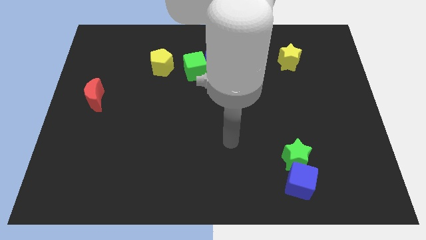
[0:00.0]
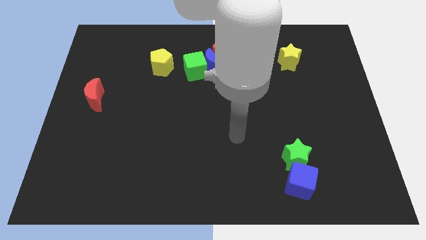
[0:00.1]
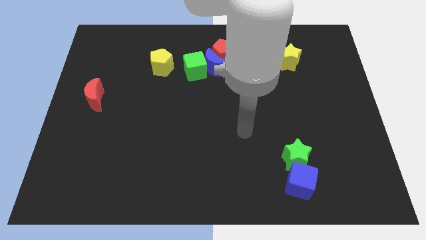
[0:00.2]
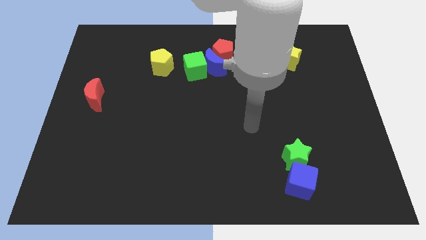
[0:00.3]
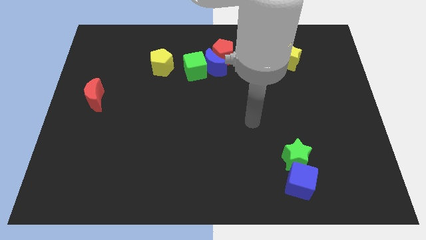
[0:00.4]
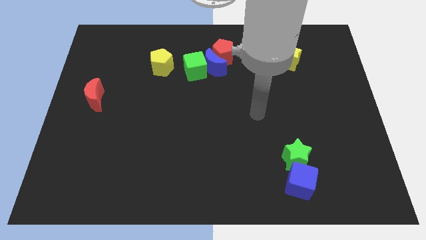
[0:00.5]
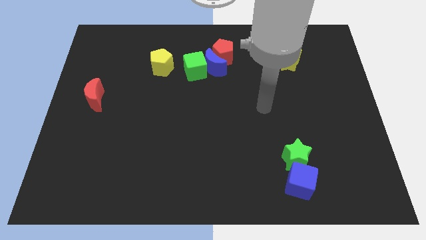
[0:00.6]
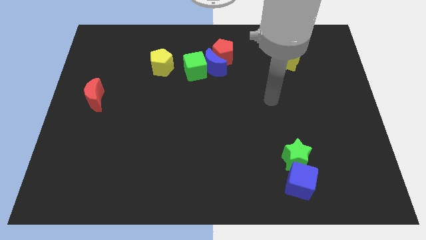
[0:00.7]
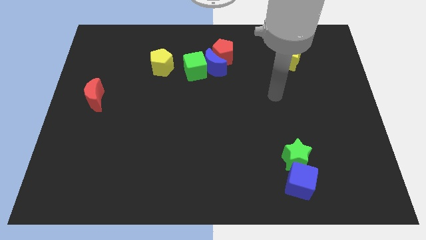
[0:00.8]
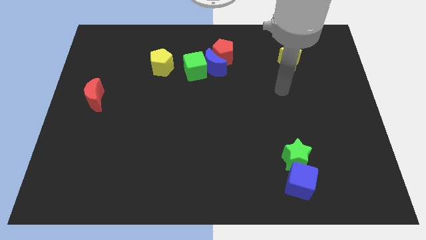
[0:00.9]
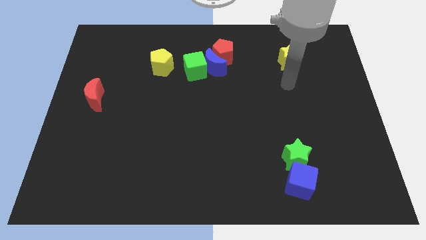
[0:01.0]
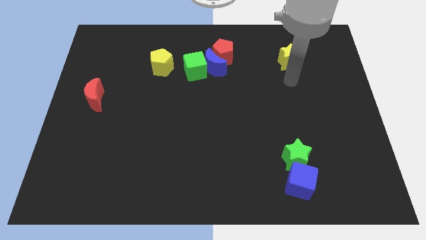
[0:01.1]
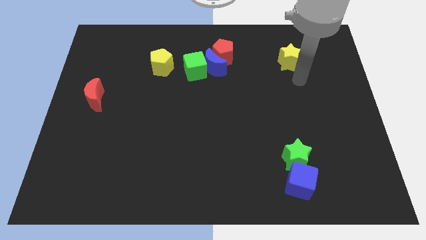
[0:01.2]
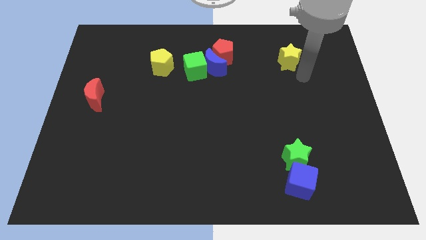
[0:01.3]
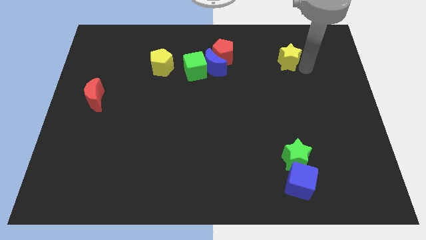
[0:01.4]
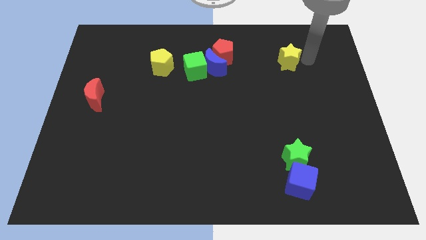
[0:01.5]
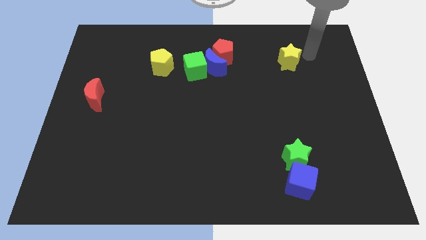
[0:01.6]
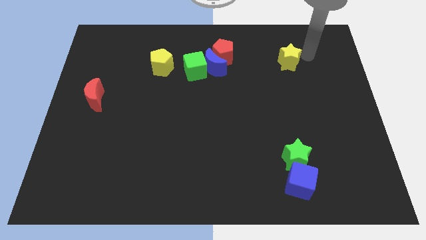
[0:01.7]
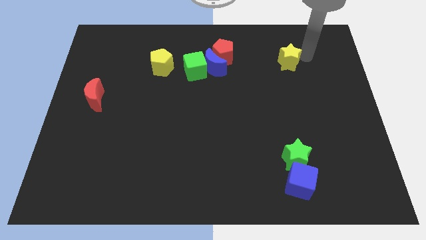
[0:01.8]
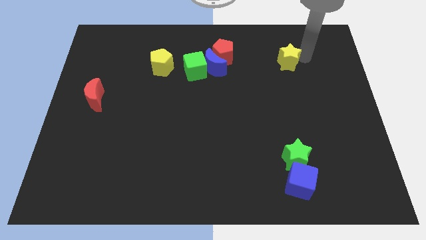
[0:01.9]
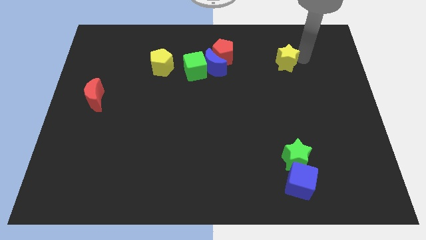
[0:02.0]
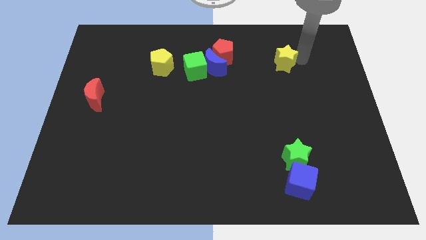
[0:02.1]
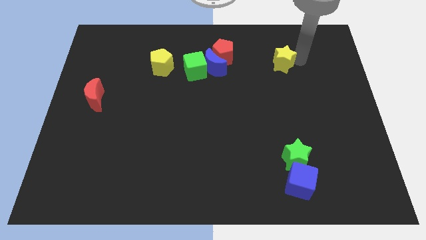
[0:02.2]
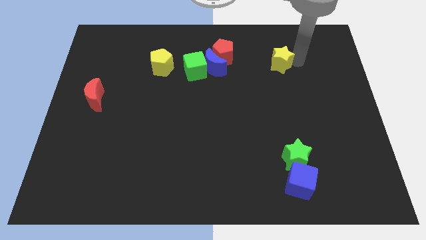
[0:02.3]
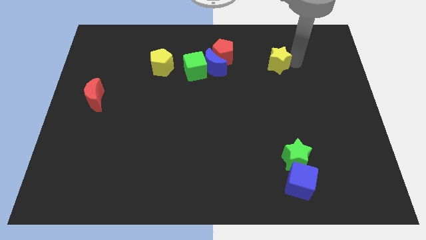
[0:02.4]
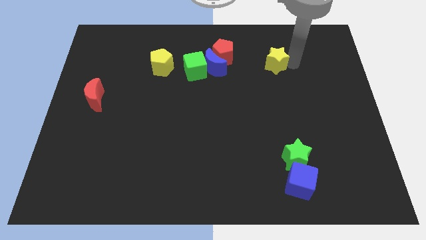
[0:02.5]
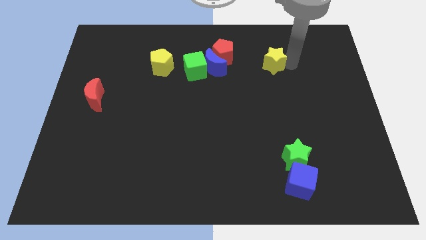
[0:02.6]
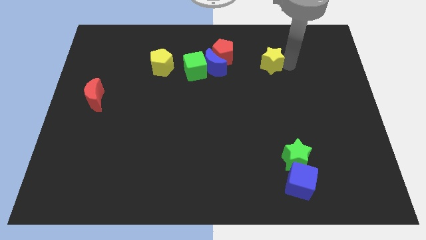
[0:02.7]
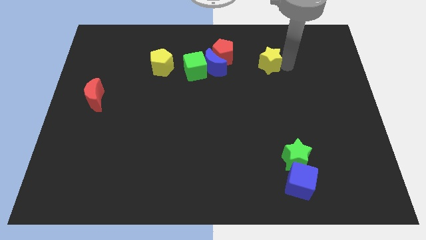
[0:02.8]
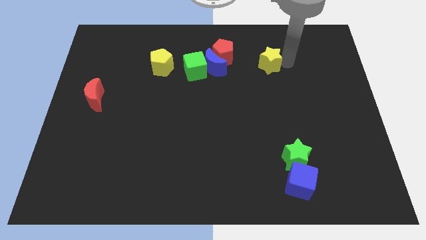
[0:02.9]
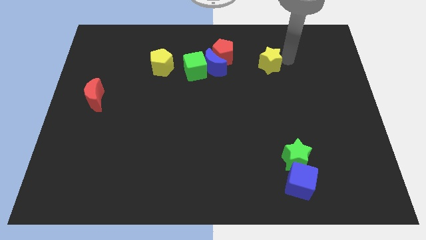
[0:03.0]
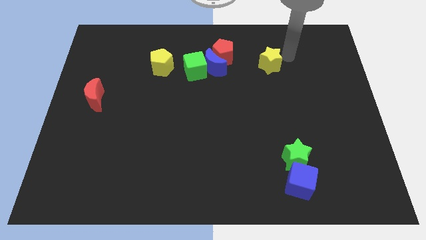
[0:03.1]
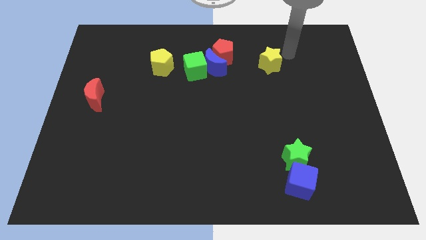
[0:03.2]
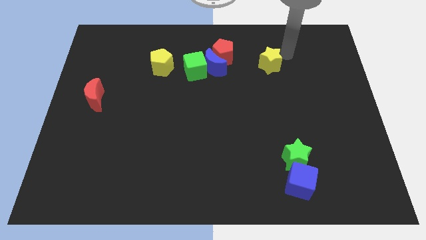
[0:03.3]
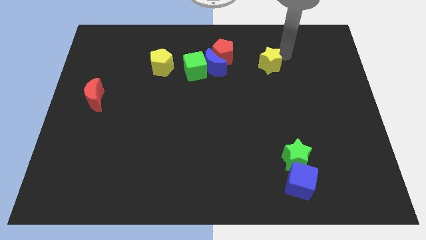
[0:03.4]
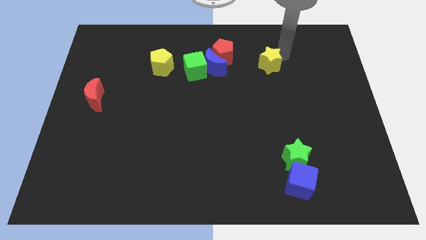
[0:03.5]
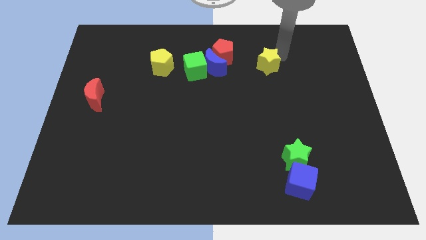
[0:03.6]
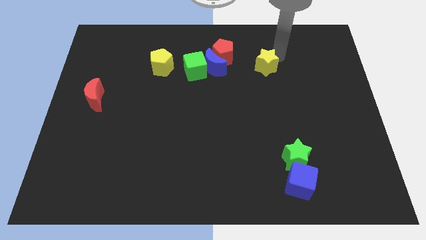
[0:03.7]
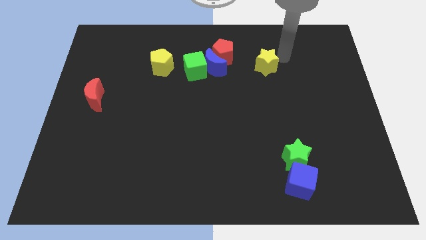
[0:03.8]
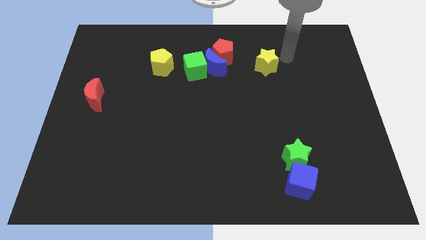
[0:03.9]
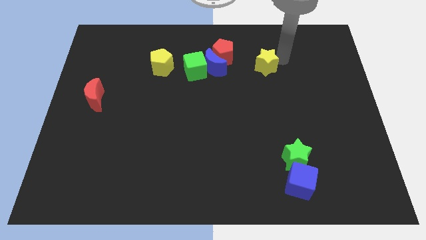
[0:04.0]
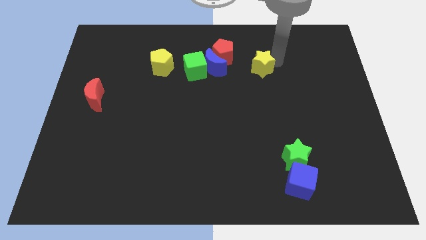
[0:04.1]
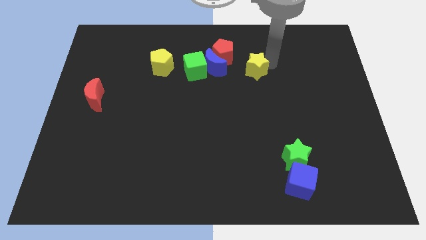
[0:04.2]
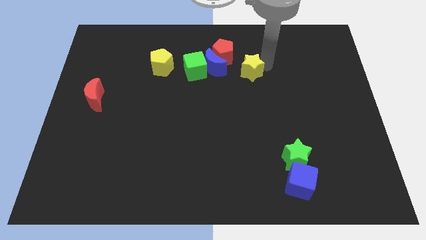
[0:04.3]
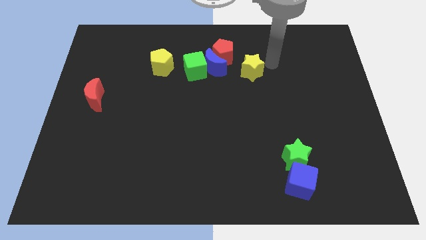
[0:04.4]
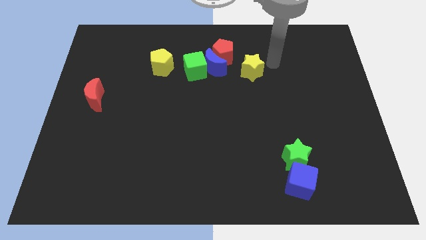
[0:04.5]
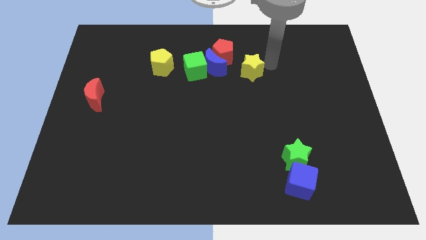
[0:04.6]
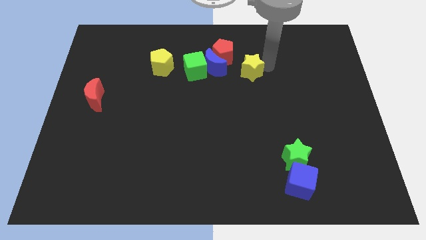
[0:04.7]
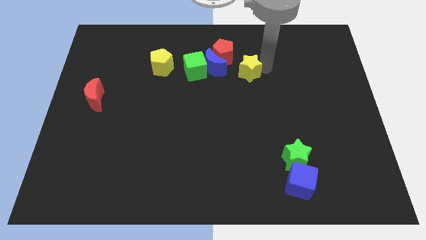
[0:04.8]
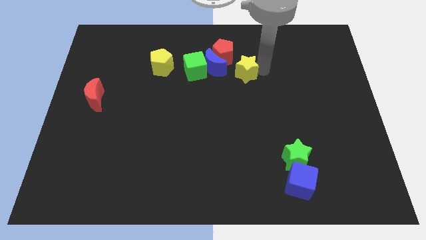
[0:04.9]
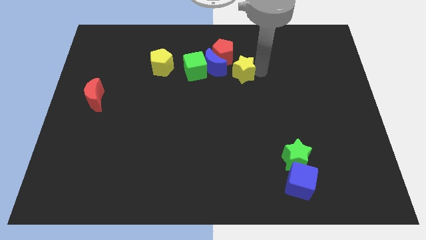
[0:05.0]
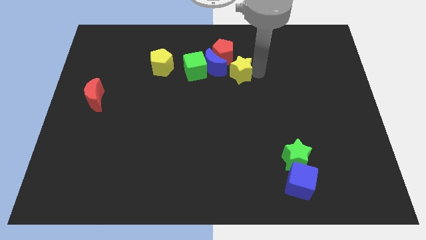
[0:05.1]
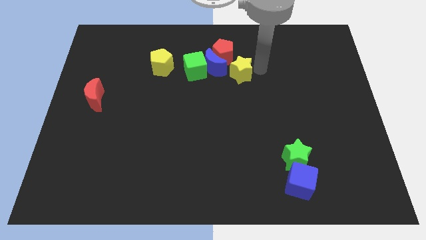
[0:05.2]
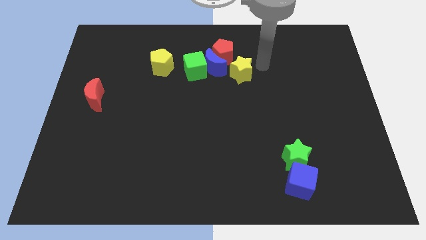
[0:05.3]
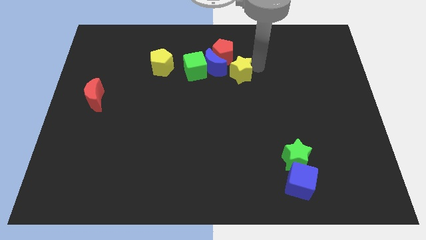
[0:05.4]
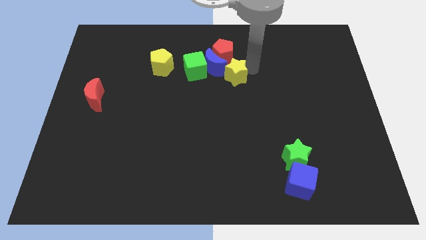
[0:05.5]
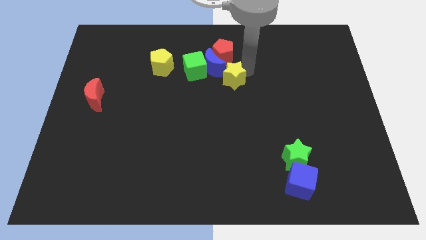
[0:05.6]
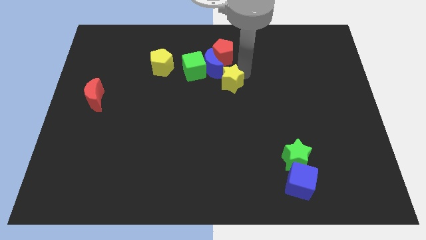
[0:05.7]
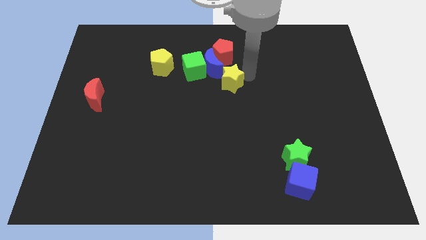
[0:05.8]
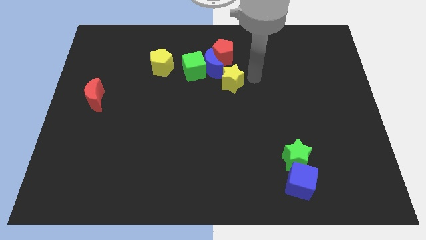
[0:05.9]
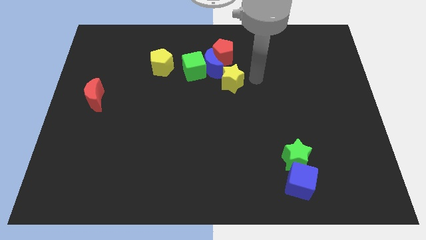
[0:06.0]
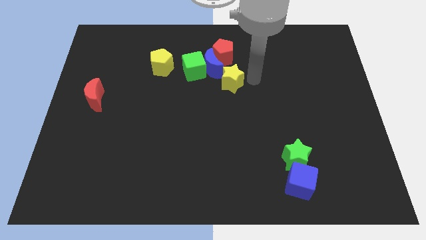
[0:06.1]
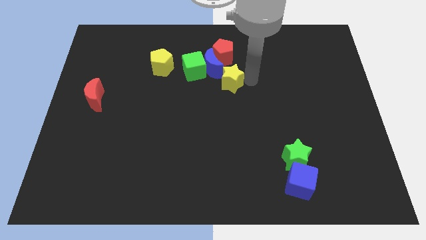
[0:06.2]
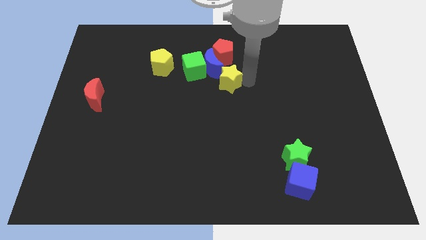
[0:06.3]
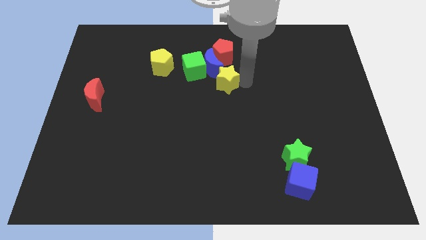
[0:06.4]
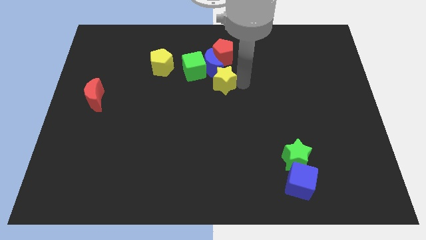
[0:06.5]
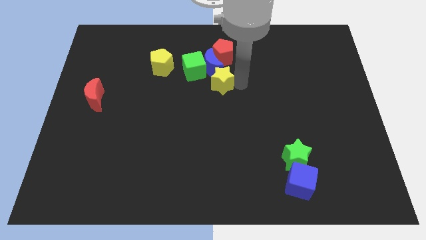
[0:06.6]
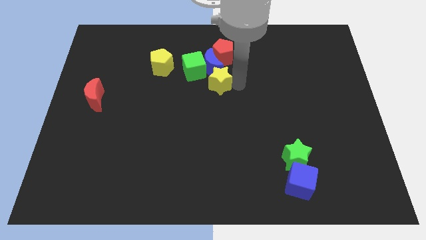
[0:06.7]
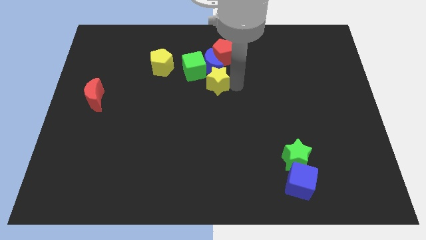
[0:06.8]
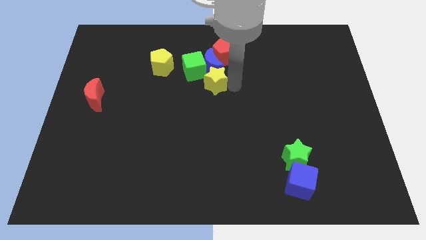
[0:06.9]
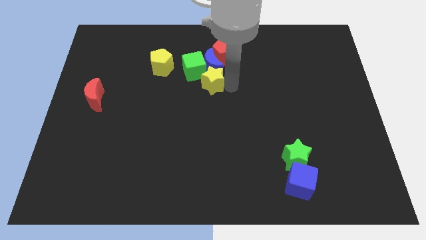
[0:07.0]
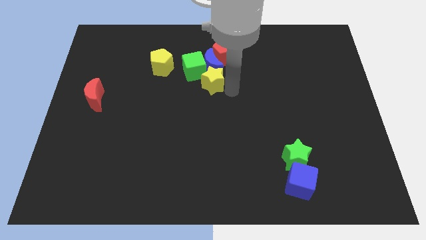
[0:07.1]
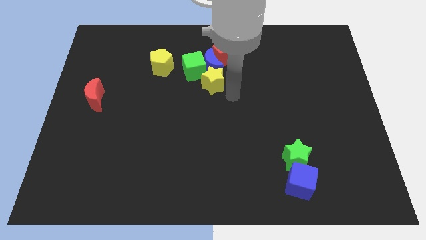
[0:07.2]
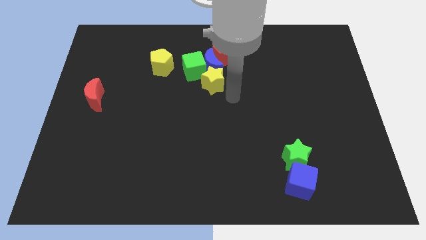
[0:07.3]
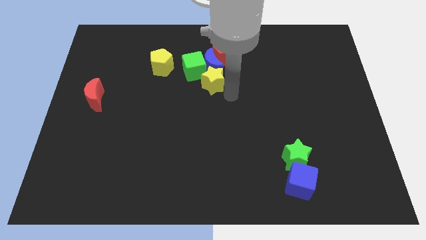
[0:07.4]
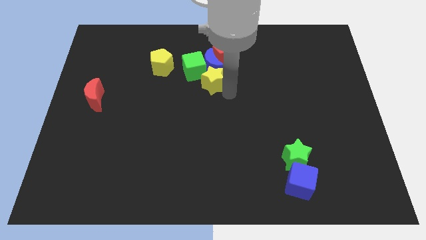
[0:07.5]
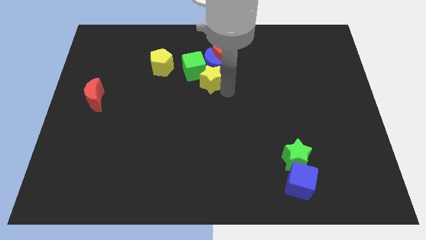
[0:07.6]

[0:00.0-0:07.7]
move the yellow star towards the green cube
